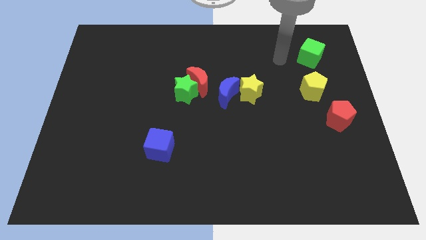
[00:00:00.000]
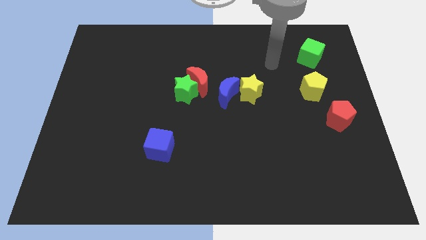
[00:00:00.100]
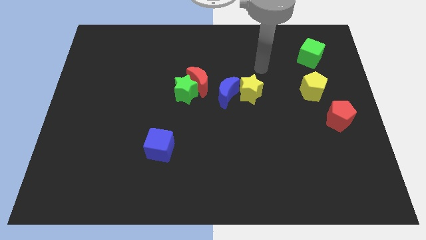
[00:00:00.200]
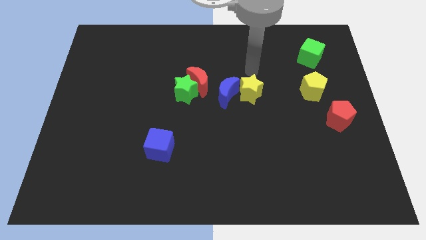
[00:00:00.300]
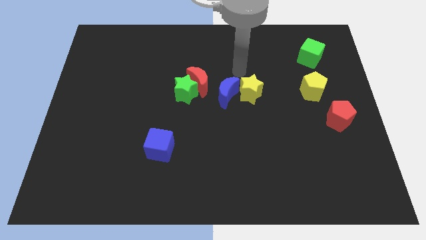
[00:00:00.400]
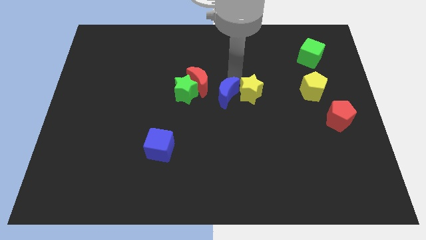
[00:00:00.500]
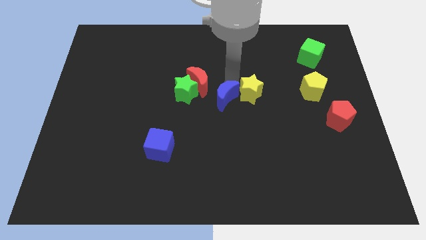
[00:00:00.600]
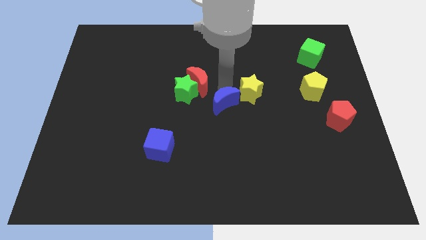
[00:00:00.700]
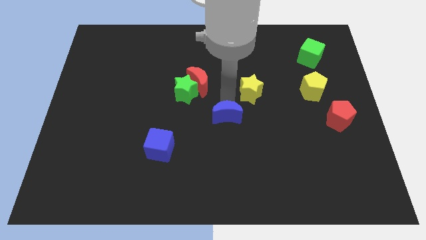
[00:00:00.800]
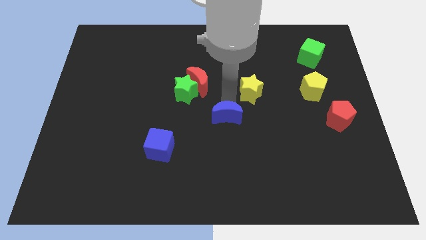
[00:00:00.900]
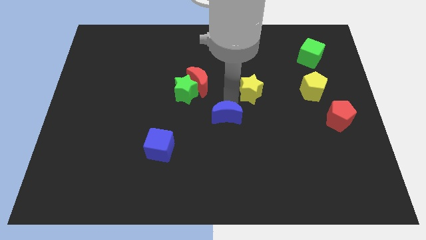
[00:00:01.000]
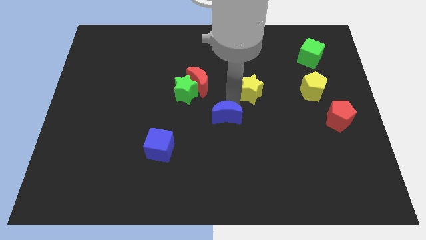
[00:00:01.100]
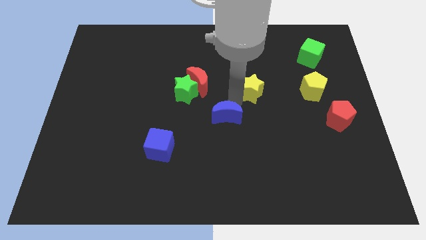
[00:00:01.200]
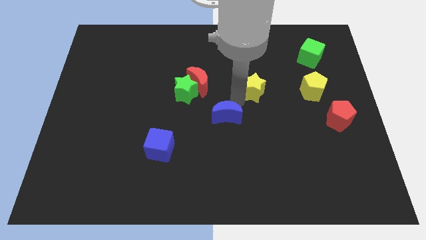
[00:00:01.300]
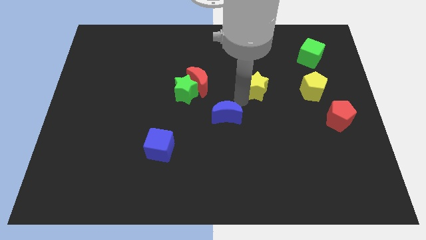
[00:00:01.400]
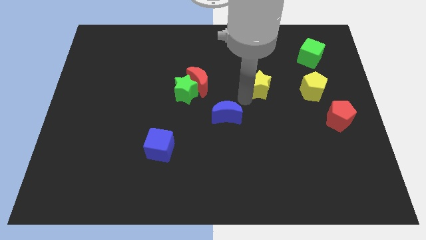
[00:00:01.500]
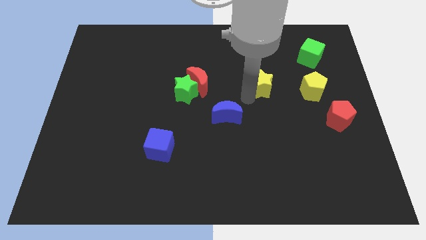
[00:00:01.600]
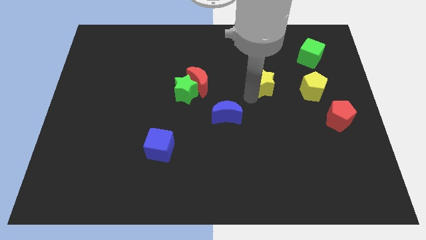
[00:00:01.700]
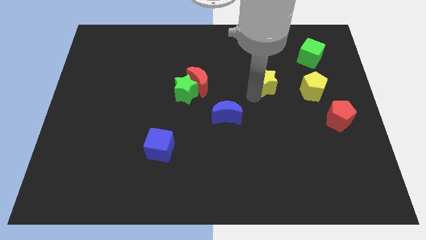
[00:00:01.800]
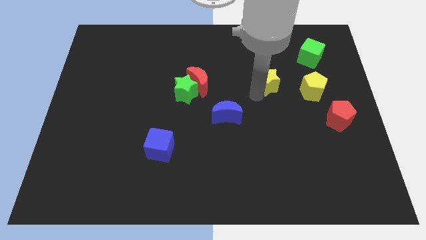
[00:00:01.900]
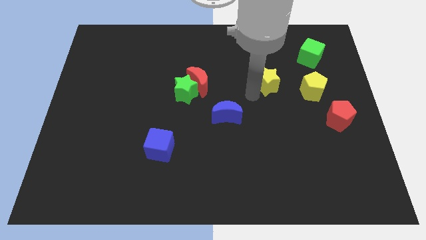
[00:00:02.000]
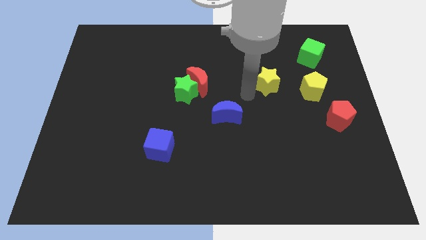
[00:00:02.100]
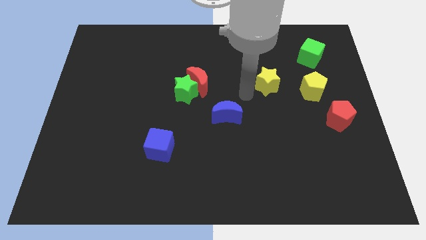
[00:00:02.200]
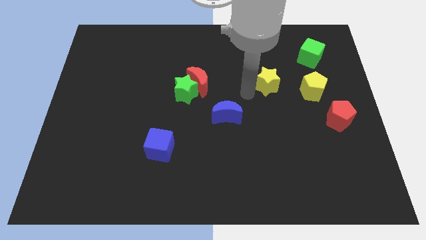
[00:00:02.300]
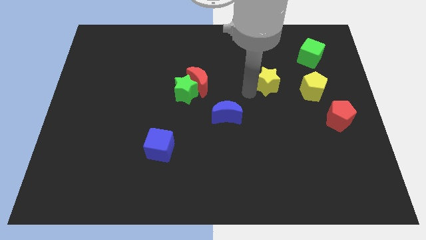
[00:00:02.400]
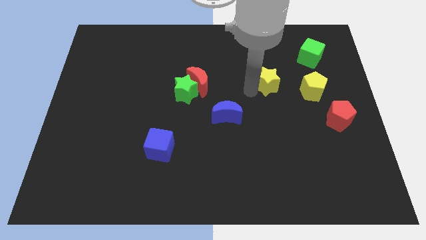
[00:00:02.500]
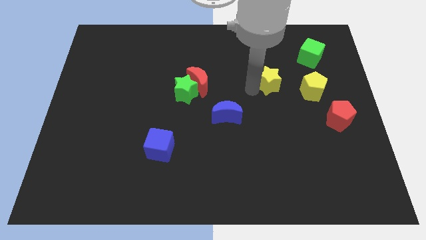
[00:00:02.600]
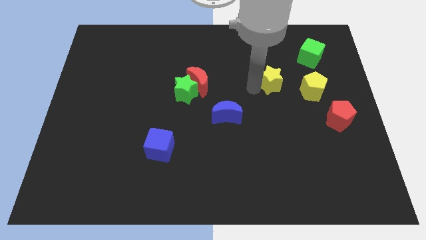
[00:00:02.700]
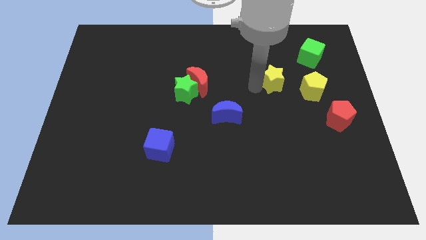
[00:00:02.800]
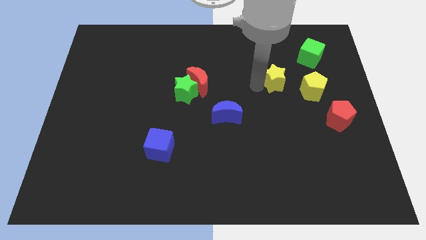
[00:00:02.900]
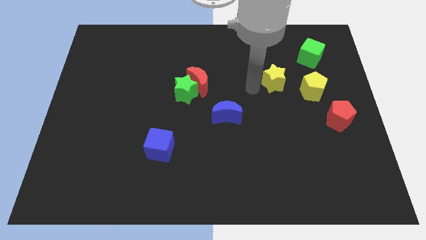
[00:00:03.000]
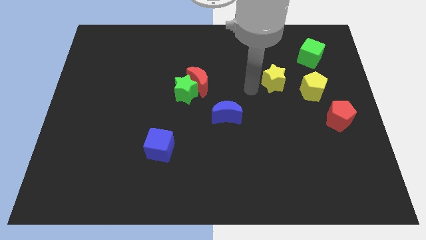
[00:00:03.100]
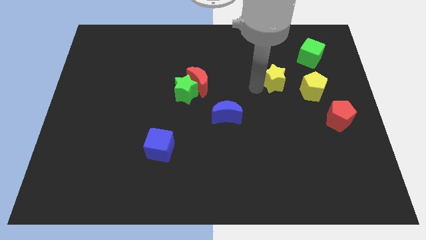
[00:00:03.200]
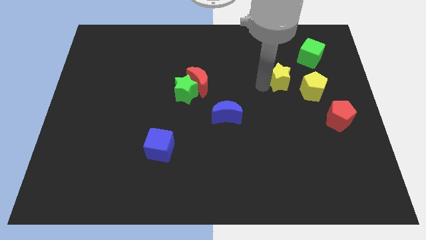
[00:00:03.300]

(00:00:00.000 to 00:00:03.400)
slightly slide the yellow star right

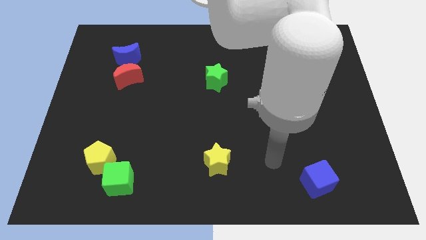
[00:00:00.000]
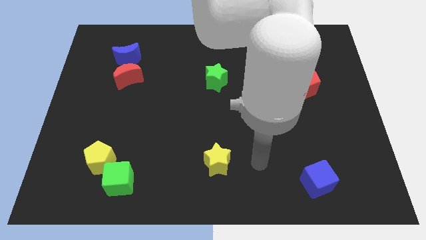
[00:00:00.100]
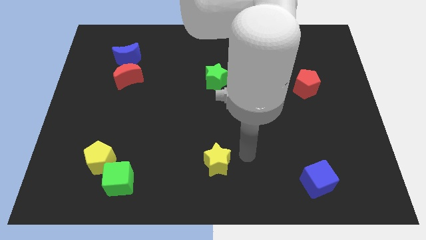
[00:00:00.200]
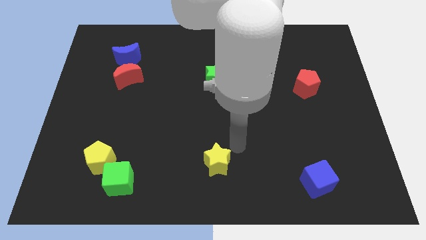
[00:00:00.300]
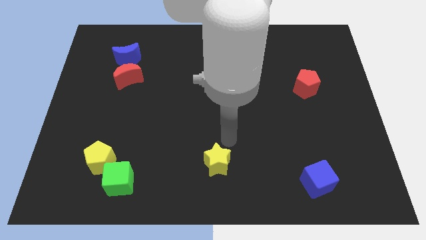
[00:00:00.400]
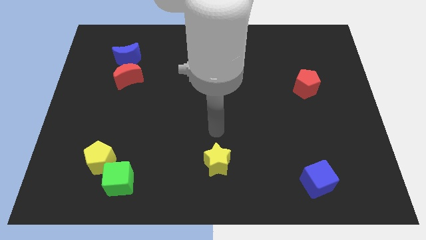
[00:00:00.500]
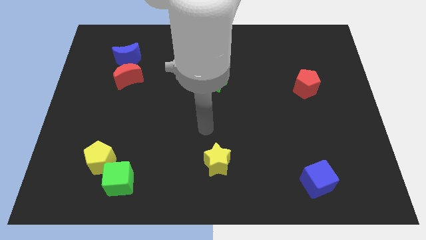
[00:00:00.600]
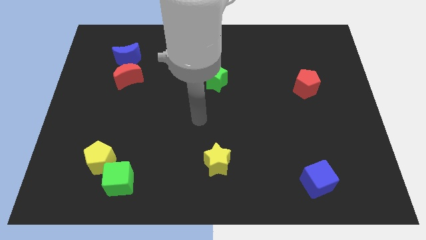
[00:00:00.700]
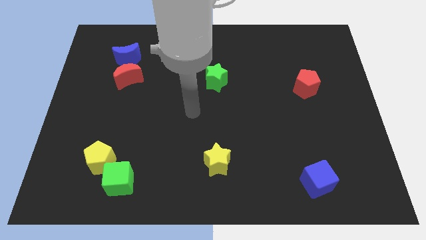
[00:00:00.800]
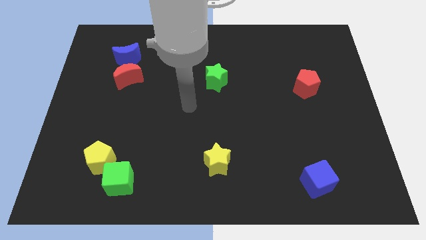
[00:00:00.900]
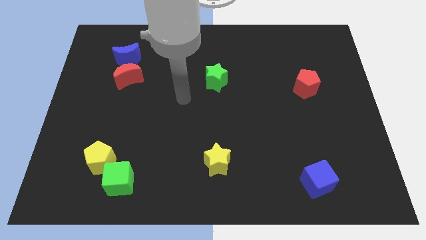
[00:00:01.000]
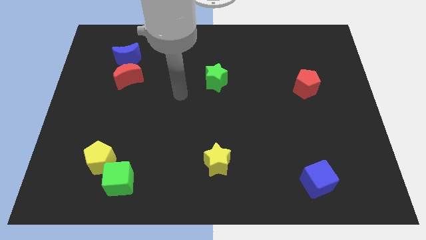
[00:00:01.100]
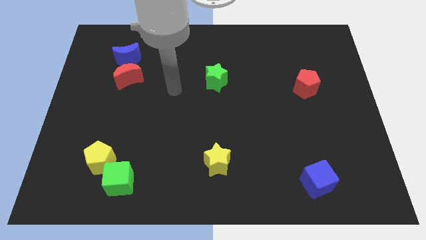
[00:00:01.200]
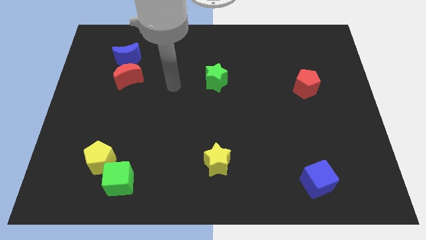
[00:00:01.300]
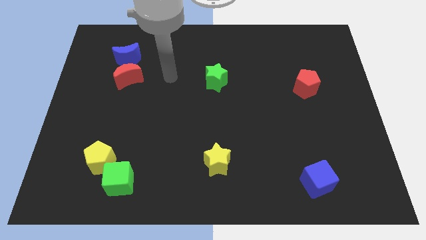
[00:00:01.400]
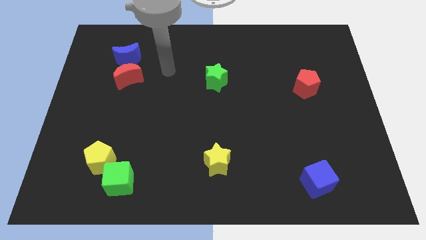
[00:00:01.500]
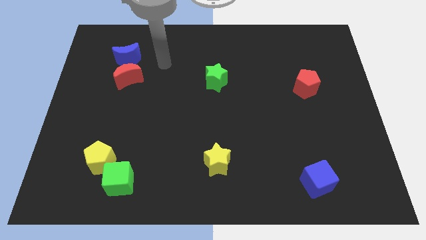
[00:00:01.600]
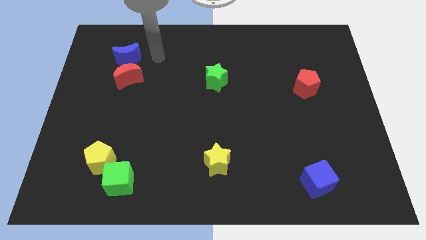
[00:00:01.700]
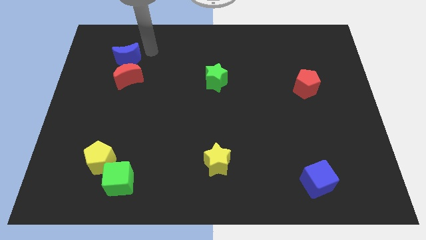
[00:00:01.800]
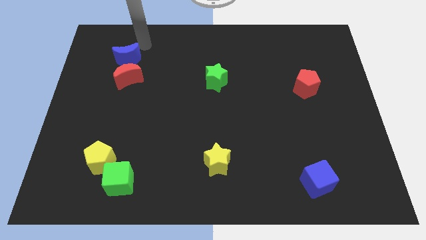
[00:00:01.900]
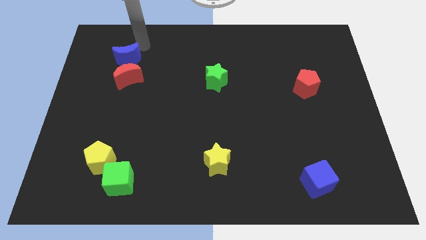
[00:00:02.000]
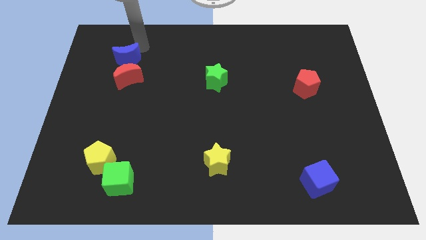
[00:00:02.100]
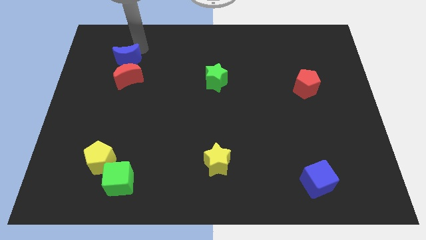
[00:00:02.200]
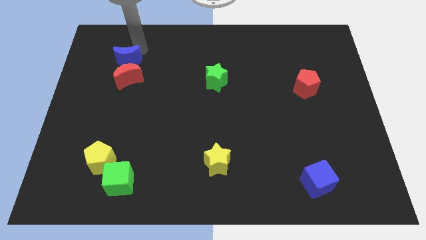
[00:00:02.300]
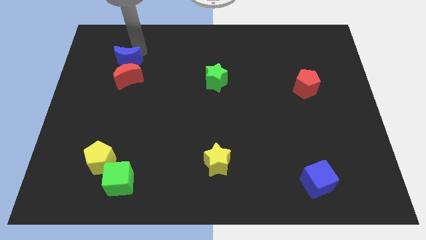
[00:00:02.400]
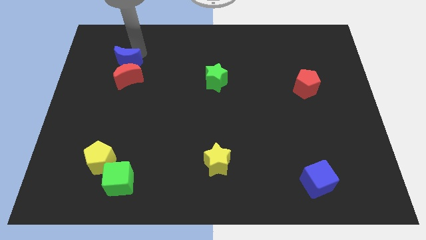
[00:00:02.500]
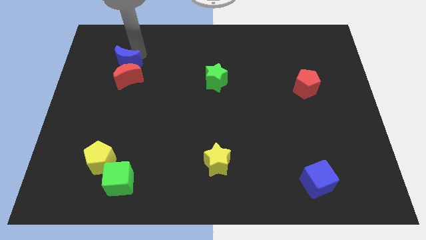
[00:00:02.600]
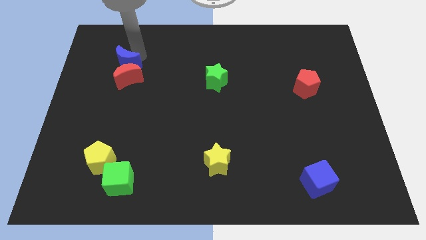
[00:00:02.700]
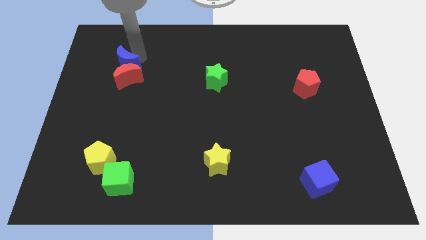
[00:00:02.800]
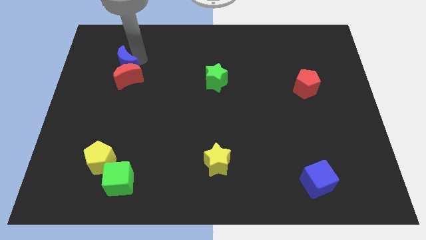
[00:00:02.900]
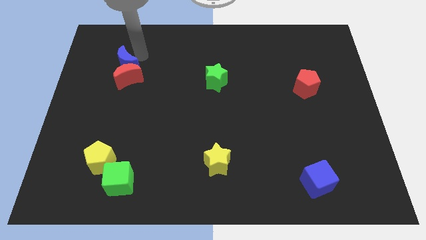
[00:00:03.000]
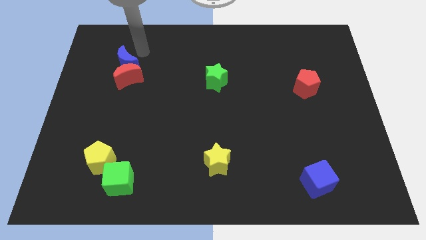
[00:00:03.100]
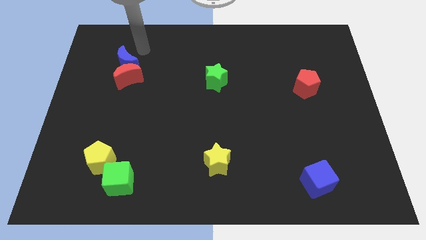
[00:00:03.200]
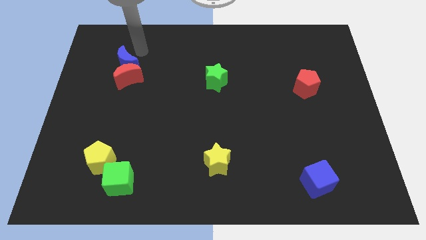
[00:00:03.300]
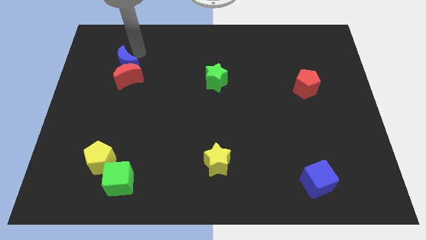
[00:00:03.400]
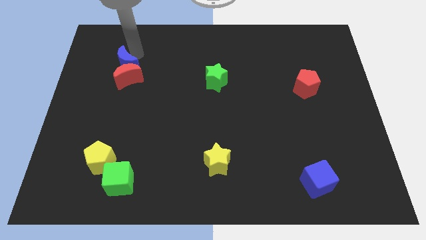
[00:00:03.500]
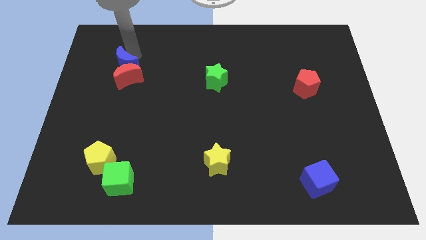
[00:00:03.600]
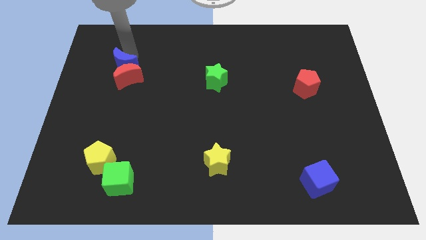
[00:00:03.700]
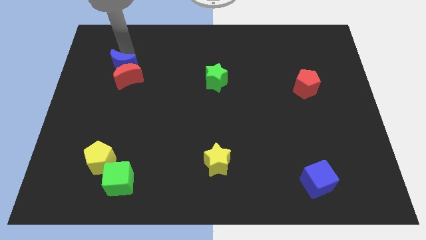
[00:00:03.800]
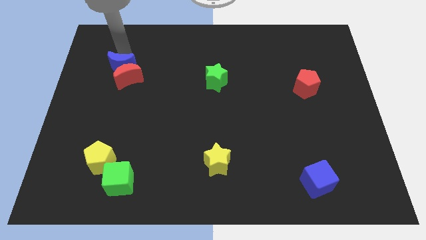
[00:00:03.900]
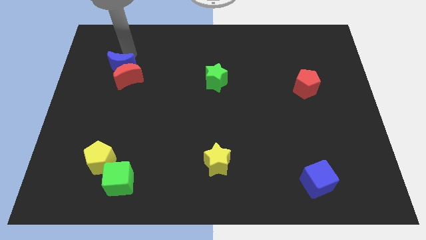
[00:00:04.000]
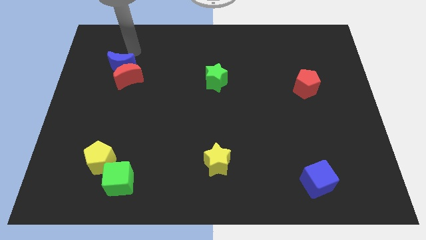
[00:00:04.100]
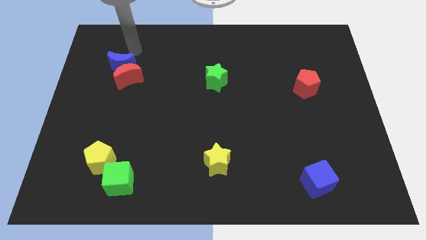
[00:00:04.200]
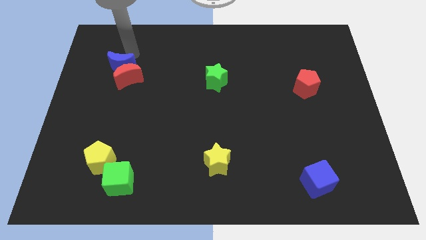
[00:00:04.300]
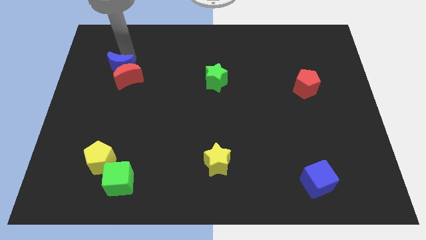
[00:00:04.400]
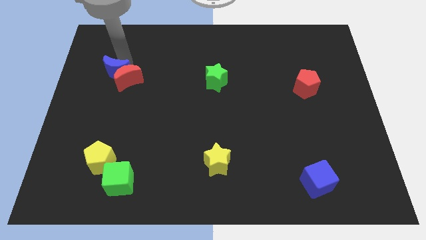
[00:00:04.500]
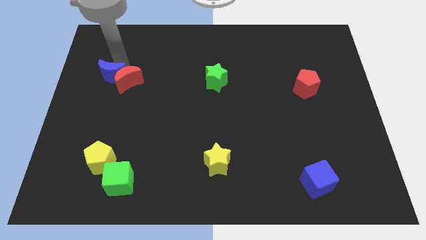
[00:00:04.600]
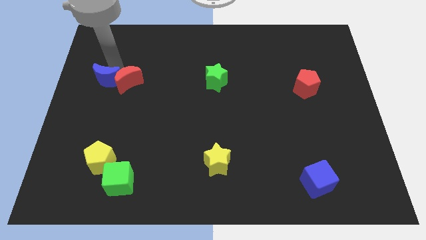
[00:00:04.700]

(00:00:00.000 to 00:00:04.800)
move the blue moon somewhat down
